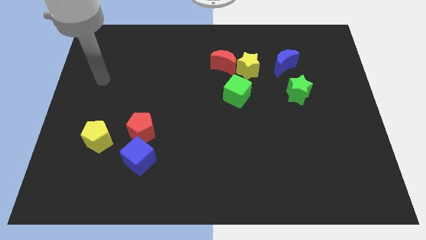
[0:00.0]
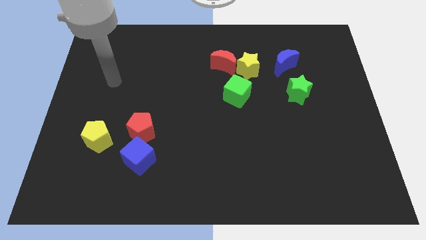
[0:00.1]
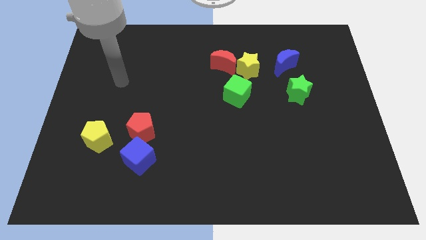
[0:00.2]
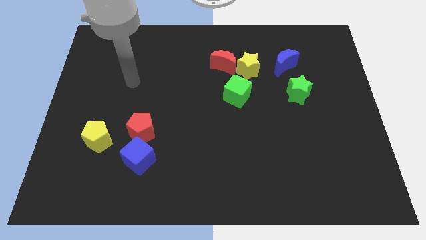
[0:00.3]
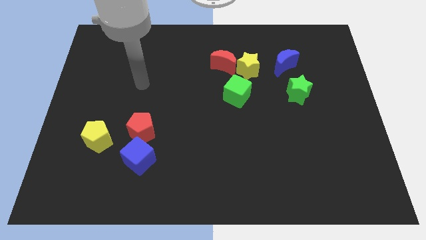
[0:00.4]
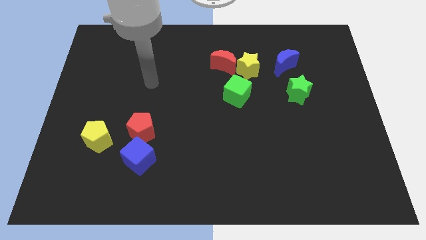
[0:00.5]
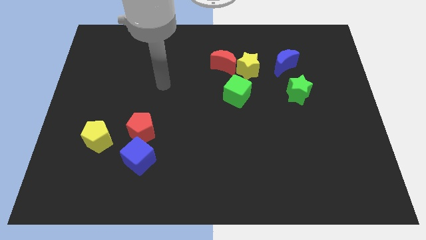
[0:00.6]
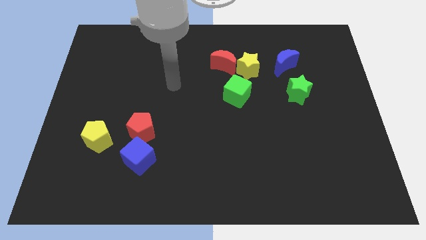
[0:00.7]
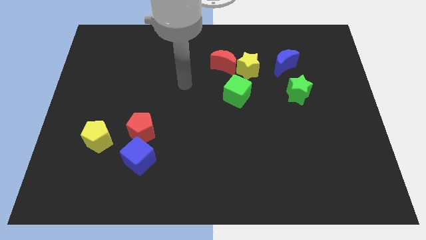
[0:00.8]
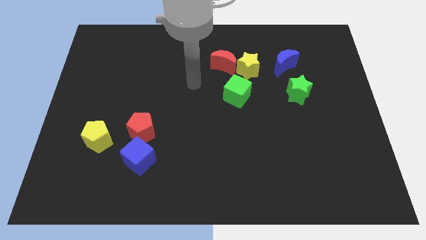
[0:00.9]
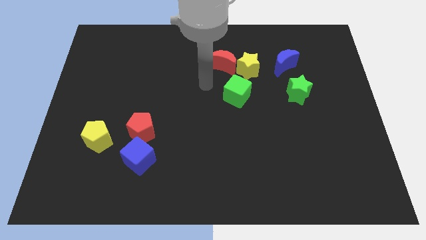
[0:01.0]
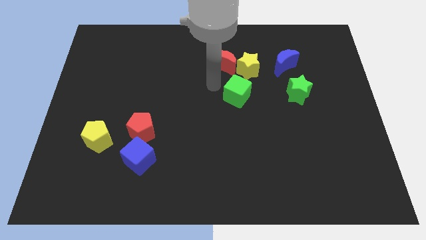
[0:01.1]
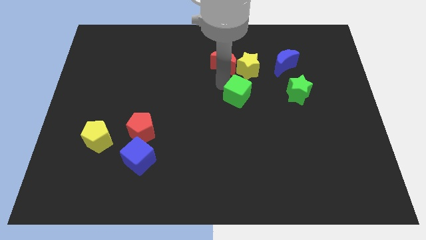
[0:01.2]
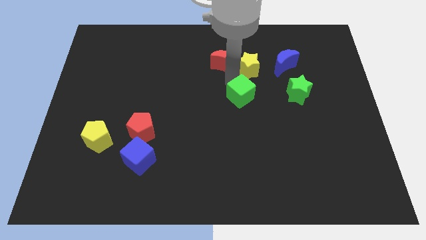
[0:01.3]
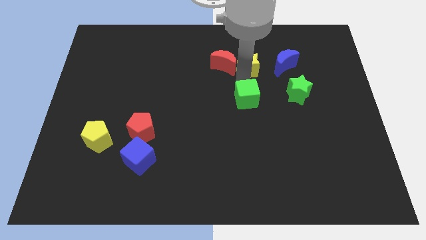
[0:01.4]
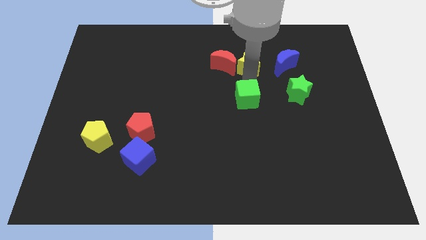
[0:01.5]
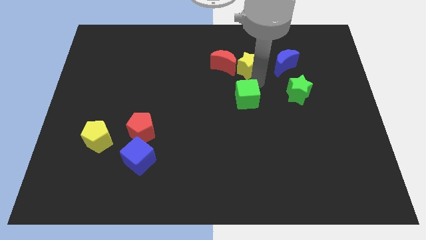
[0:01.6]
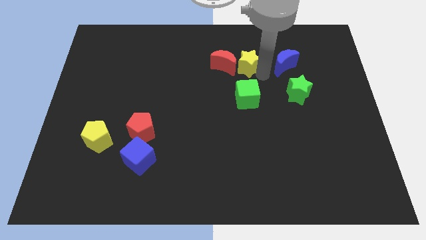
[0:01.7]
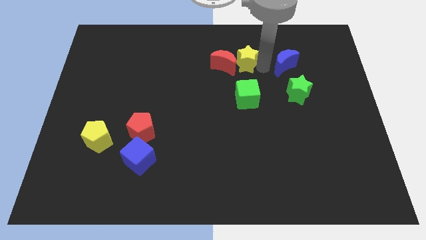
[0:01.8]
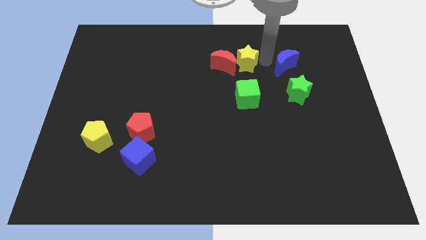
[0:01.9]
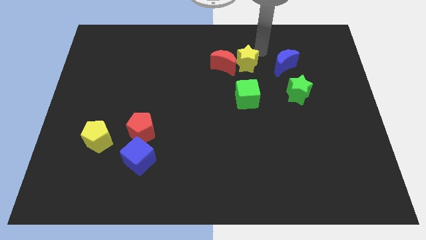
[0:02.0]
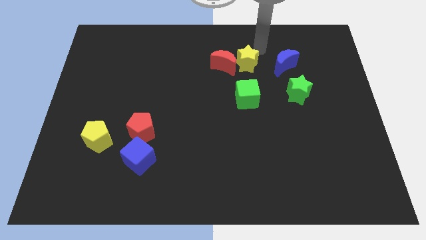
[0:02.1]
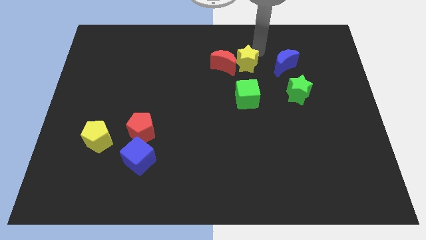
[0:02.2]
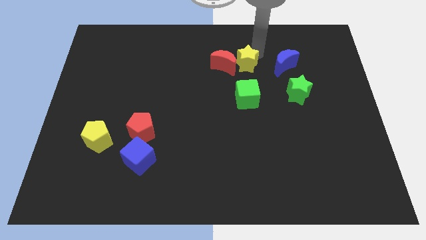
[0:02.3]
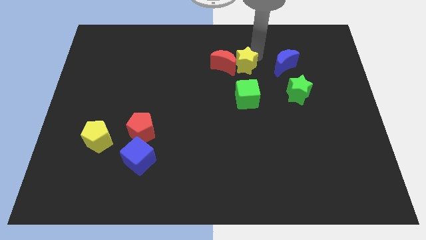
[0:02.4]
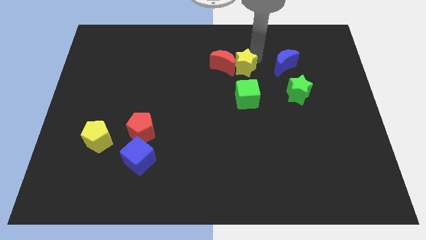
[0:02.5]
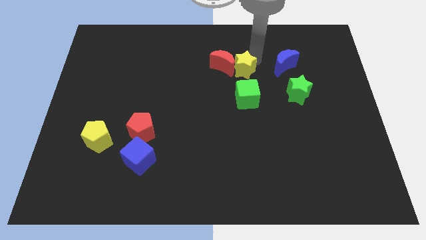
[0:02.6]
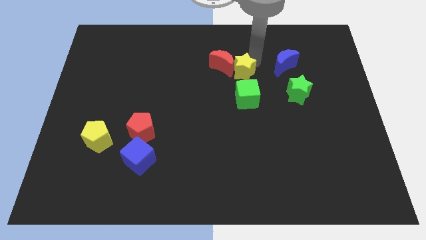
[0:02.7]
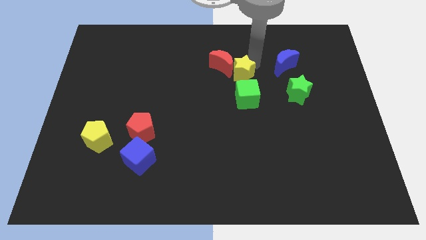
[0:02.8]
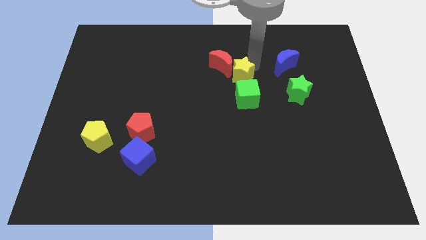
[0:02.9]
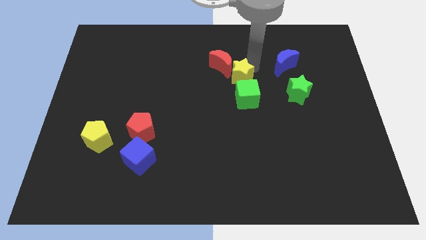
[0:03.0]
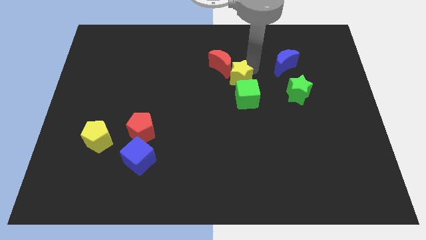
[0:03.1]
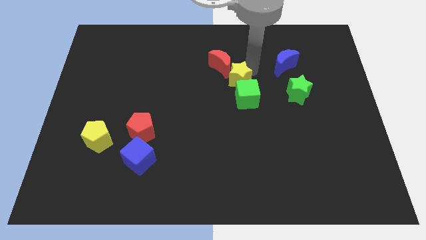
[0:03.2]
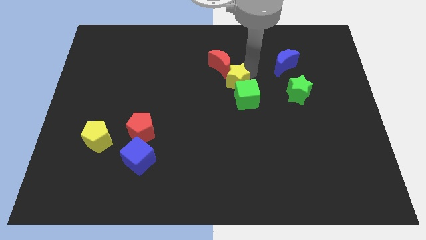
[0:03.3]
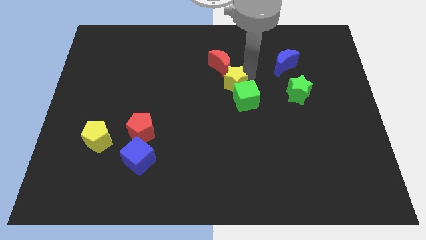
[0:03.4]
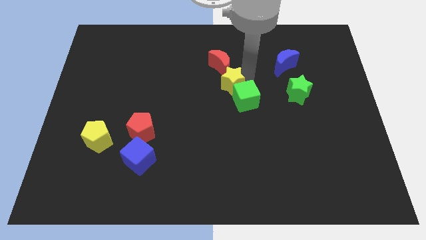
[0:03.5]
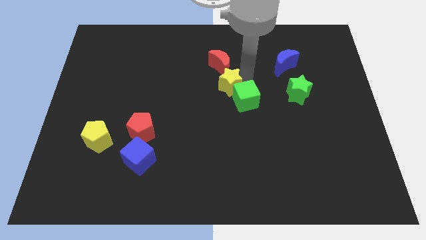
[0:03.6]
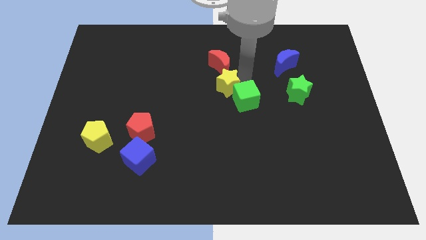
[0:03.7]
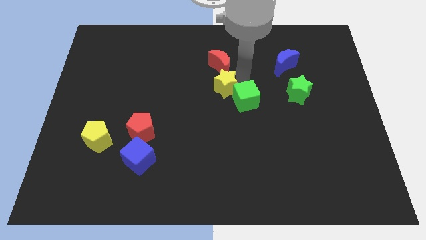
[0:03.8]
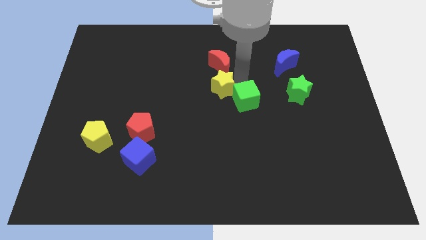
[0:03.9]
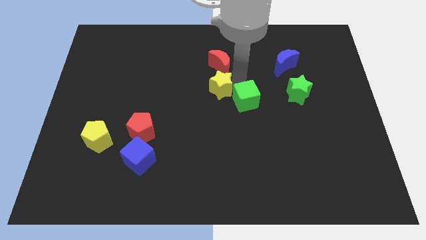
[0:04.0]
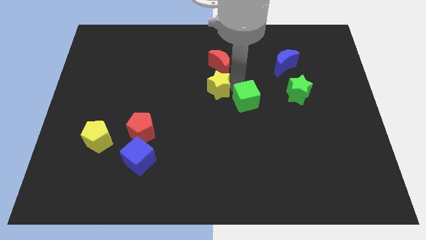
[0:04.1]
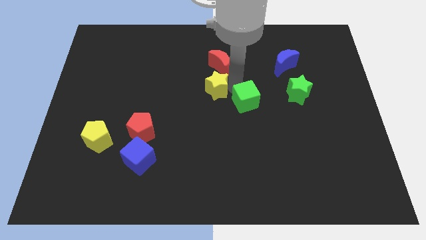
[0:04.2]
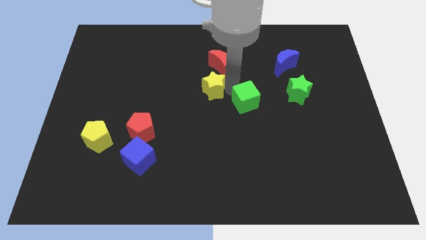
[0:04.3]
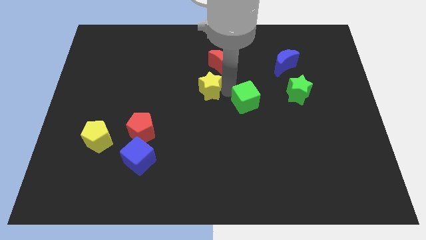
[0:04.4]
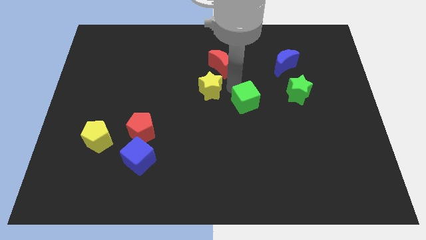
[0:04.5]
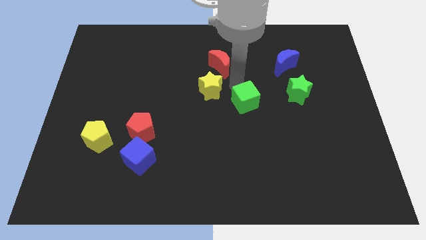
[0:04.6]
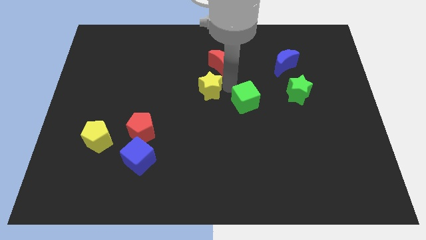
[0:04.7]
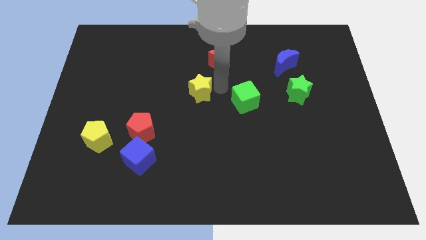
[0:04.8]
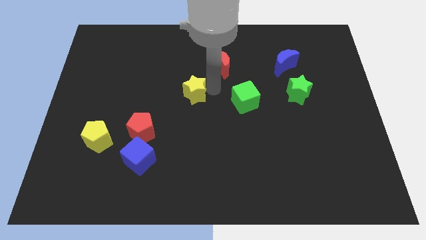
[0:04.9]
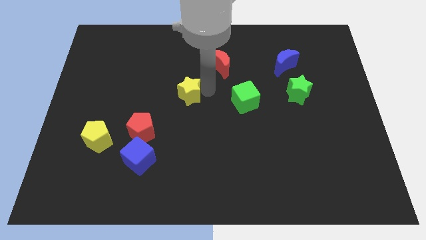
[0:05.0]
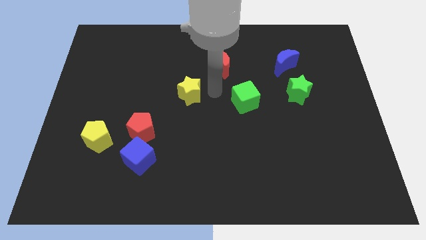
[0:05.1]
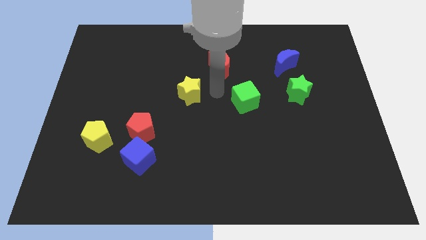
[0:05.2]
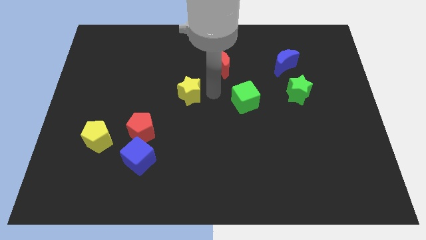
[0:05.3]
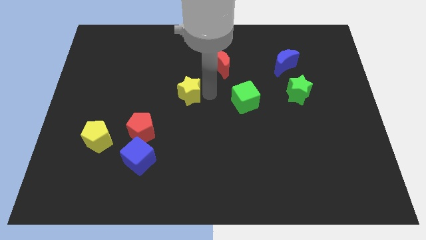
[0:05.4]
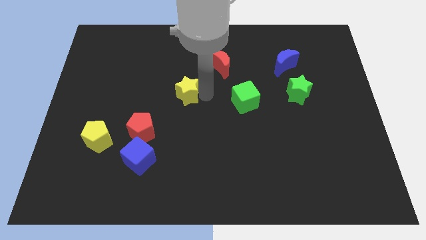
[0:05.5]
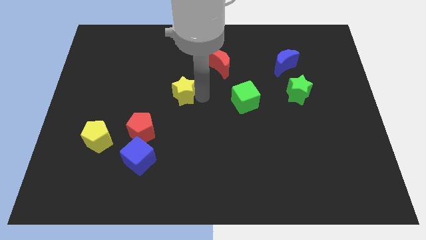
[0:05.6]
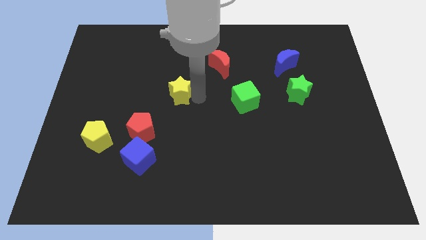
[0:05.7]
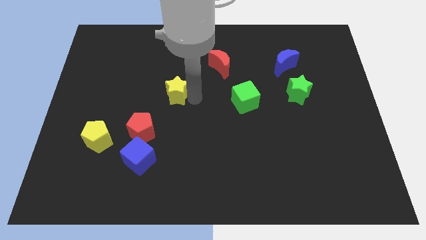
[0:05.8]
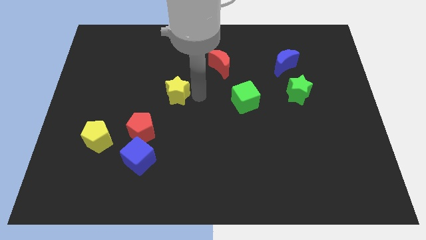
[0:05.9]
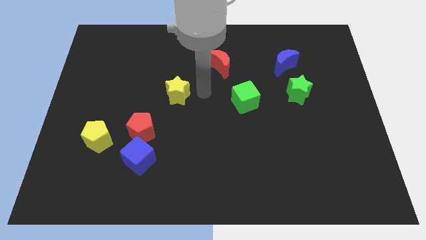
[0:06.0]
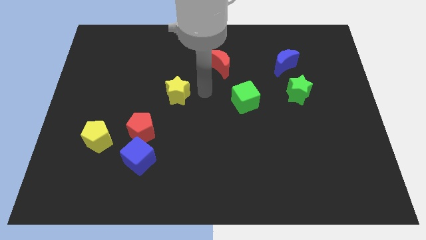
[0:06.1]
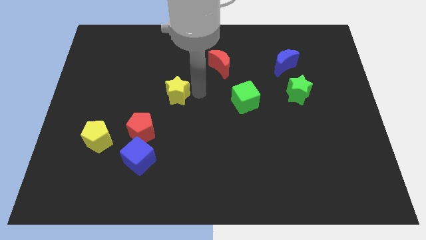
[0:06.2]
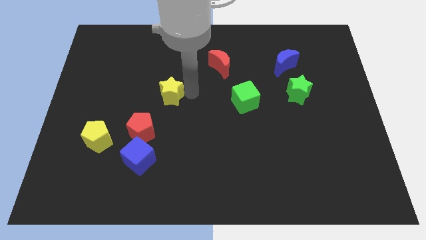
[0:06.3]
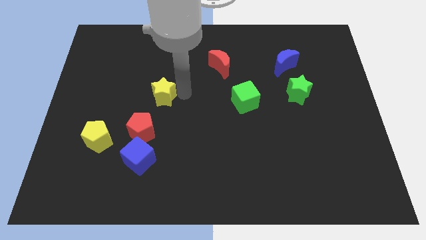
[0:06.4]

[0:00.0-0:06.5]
slide the yellow star to the top of the red pentagon
